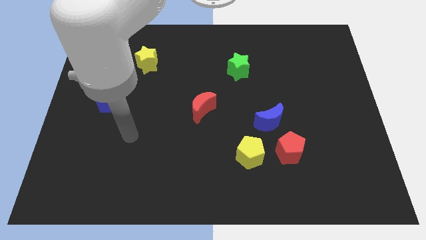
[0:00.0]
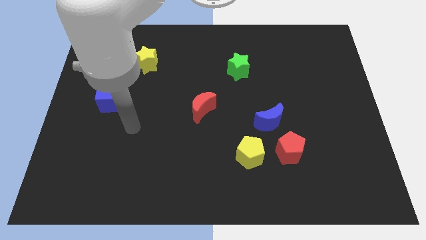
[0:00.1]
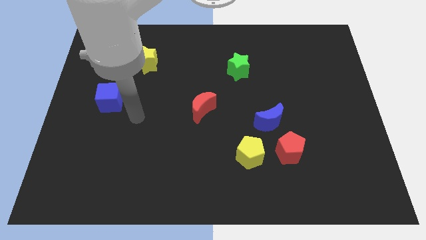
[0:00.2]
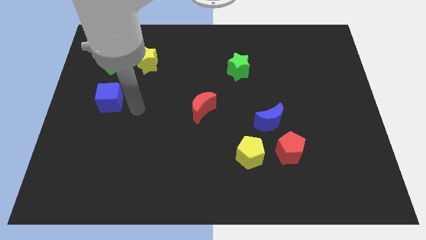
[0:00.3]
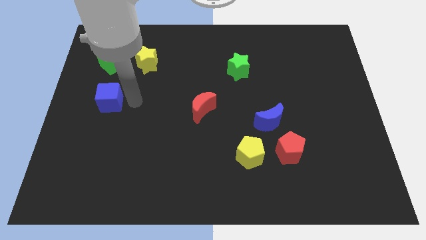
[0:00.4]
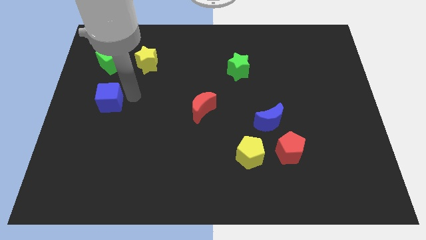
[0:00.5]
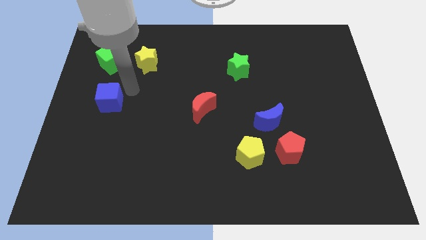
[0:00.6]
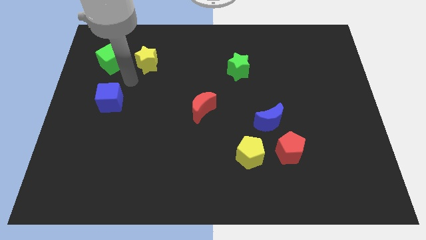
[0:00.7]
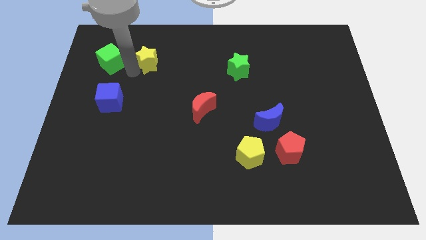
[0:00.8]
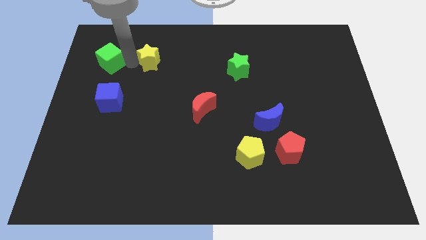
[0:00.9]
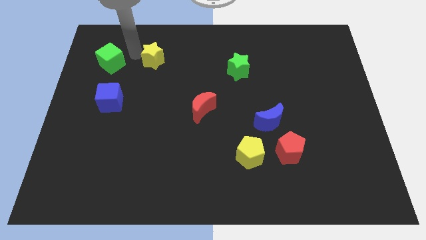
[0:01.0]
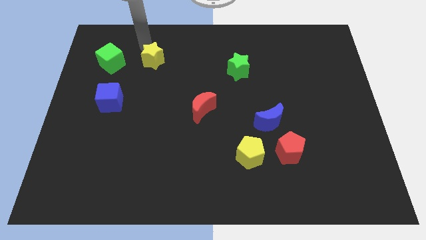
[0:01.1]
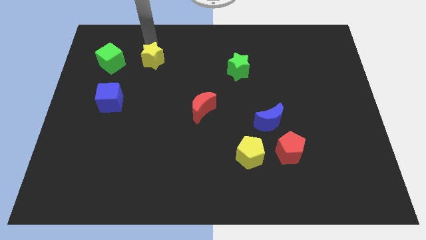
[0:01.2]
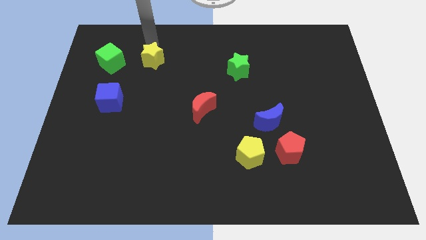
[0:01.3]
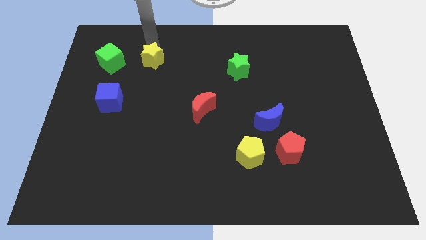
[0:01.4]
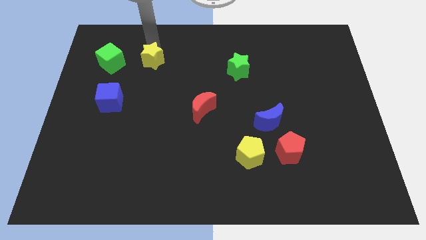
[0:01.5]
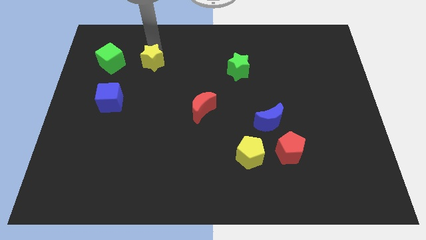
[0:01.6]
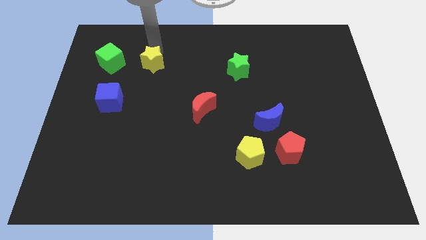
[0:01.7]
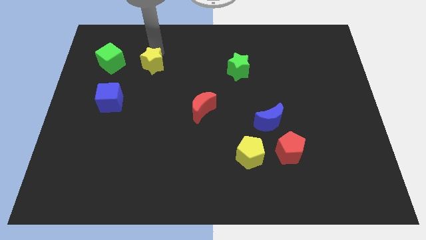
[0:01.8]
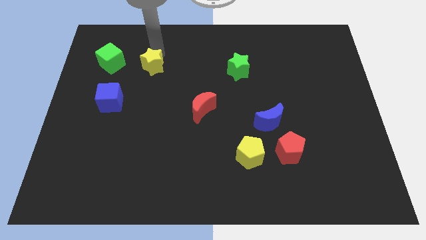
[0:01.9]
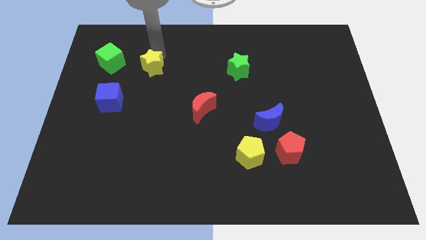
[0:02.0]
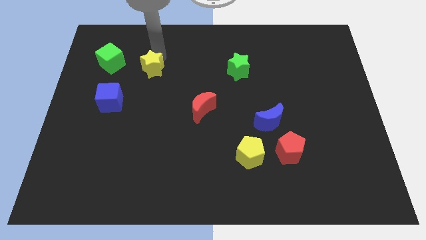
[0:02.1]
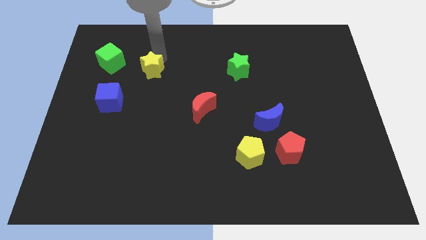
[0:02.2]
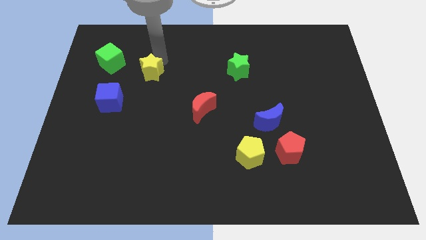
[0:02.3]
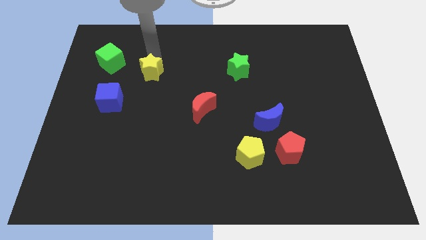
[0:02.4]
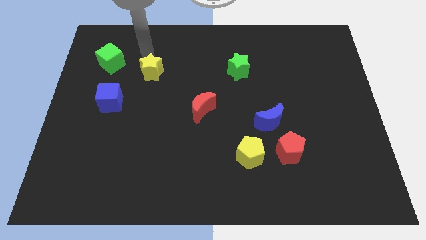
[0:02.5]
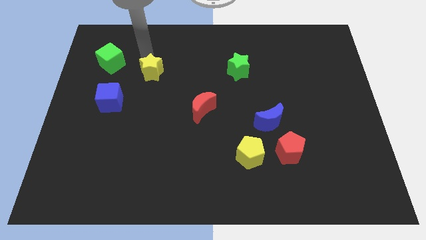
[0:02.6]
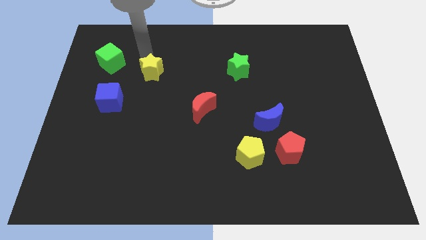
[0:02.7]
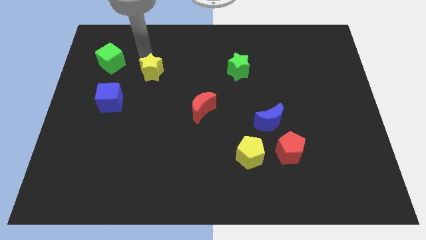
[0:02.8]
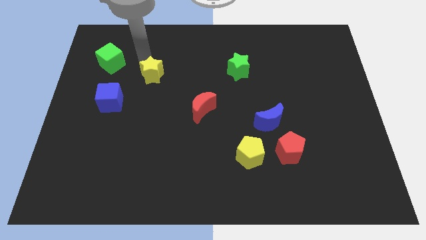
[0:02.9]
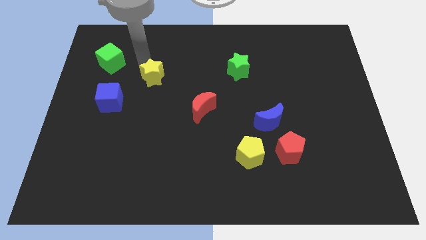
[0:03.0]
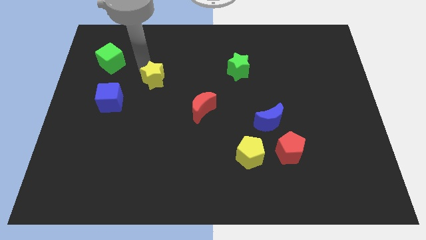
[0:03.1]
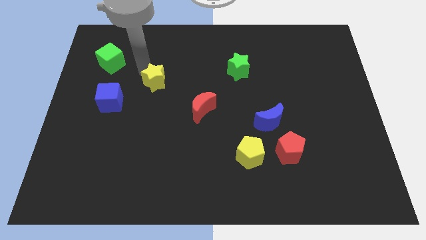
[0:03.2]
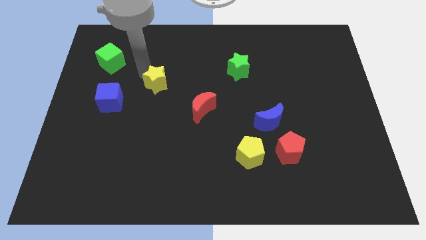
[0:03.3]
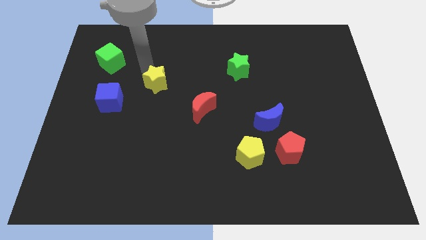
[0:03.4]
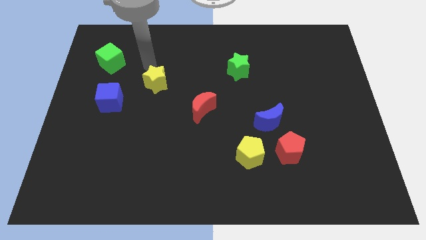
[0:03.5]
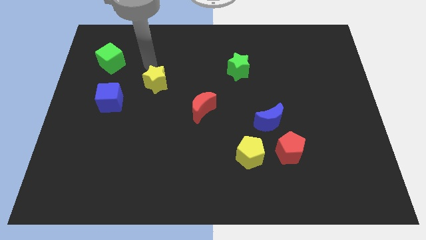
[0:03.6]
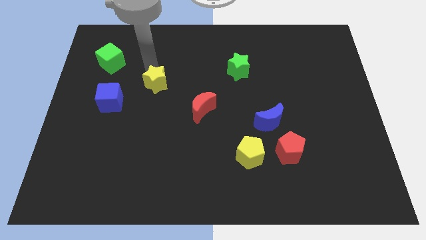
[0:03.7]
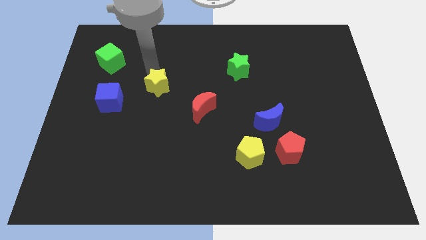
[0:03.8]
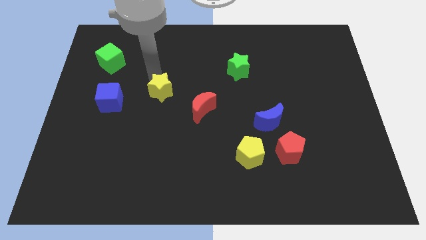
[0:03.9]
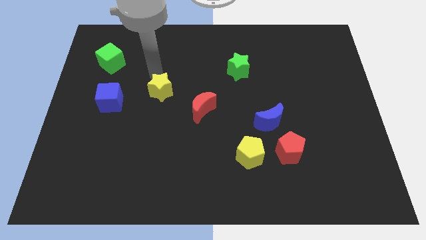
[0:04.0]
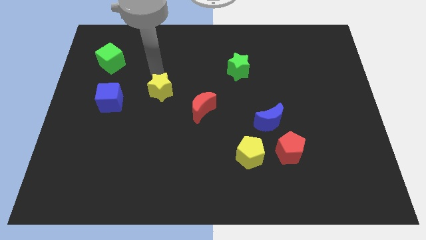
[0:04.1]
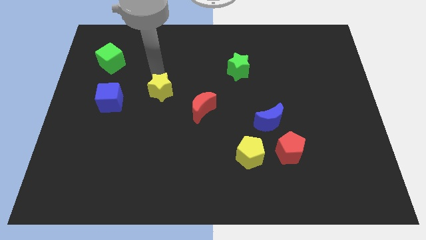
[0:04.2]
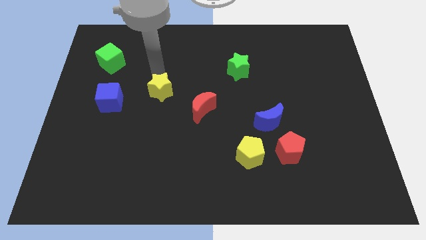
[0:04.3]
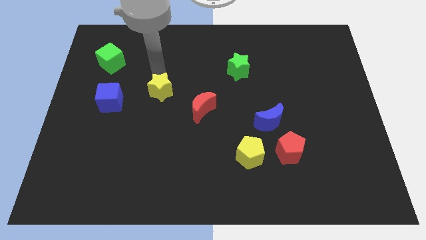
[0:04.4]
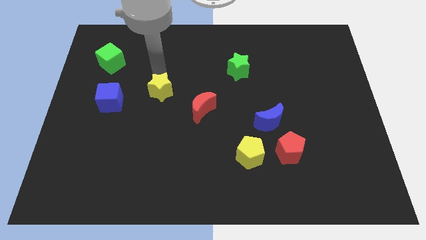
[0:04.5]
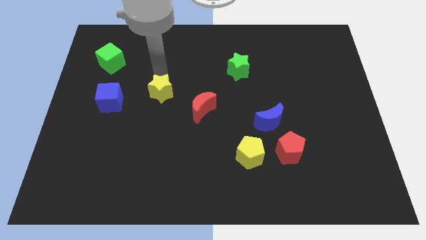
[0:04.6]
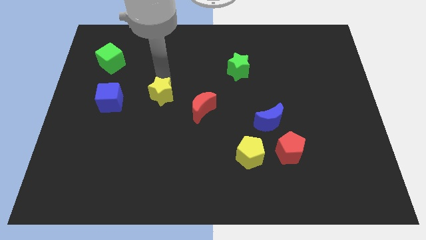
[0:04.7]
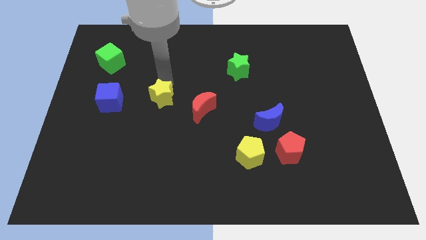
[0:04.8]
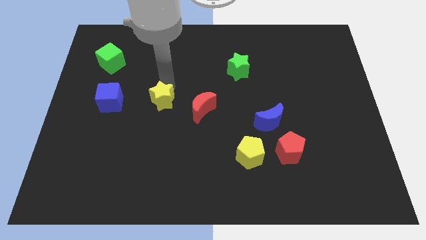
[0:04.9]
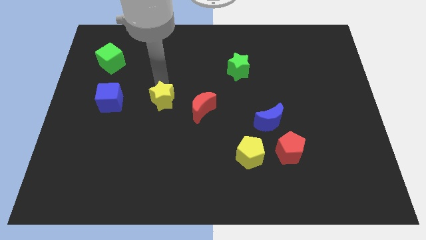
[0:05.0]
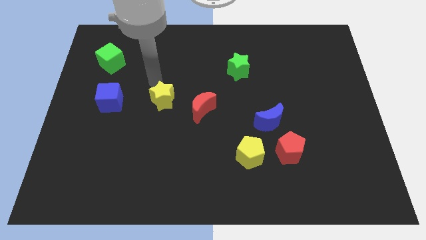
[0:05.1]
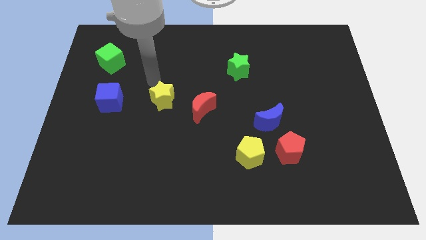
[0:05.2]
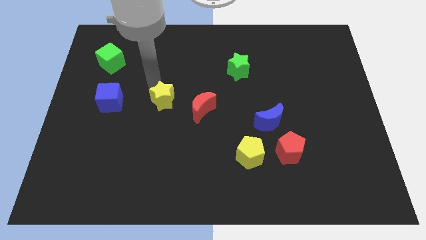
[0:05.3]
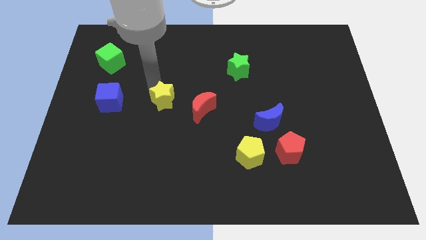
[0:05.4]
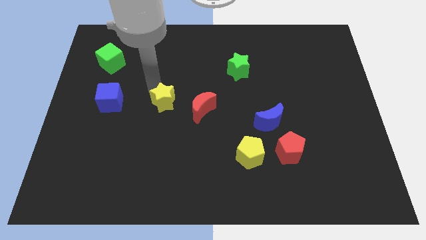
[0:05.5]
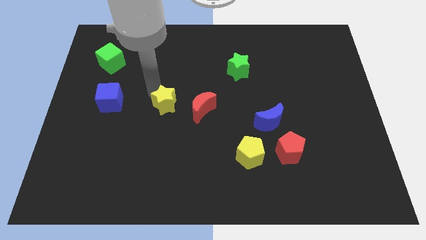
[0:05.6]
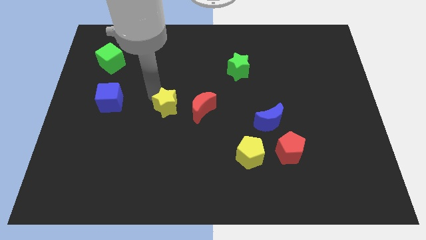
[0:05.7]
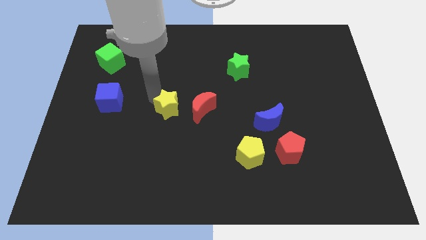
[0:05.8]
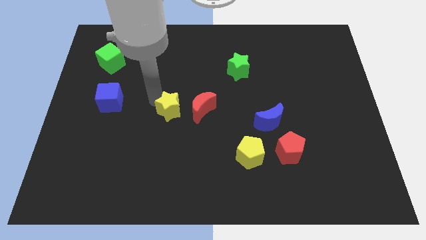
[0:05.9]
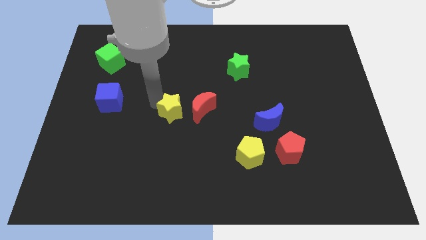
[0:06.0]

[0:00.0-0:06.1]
push the yellow star diagonally down and to the left of the red moon
